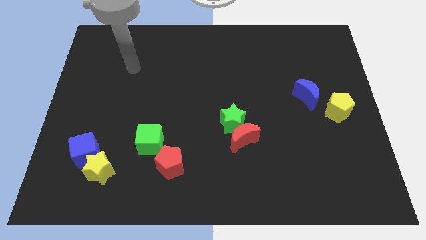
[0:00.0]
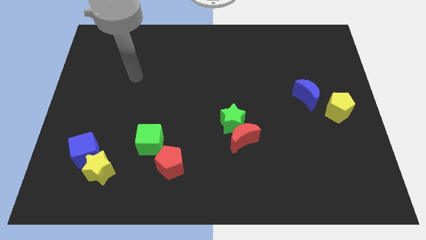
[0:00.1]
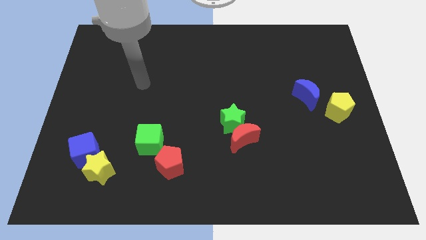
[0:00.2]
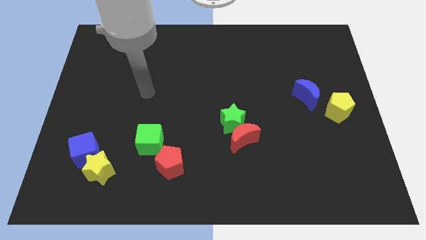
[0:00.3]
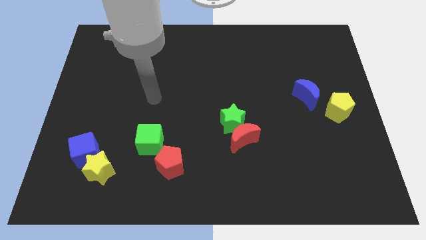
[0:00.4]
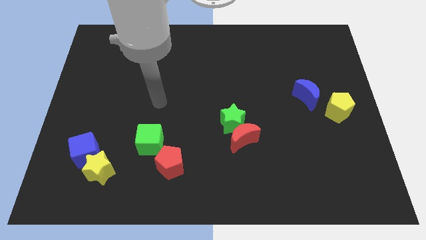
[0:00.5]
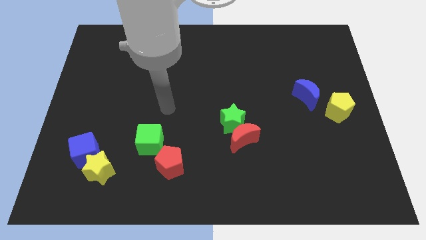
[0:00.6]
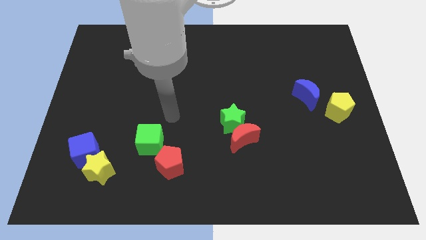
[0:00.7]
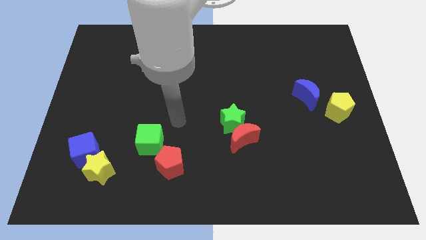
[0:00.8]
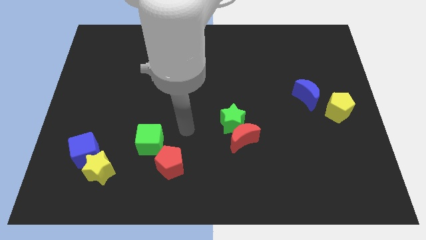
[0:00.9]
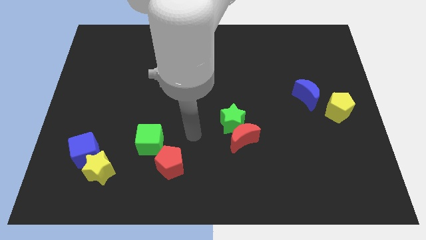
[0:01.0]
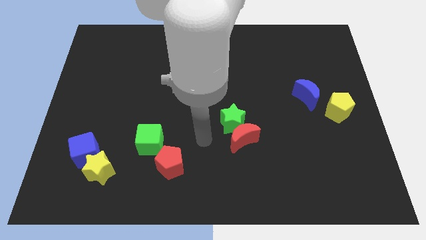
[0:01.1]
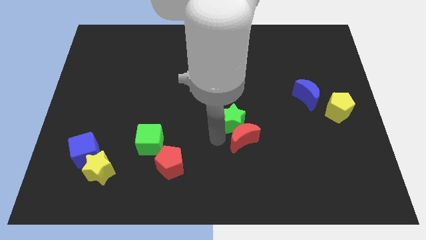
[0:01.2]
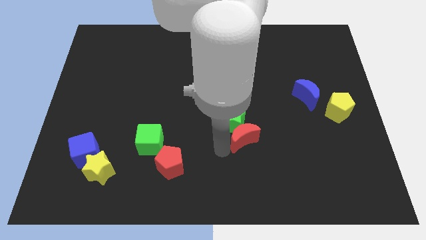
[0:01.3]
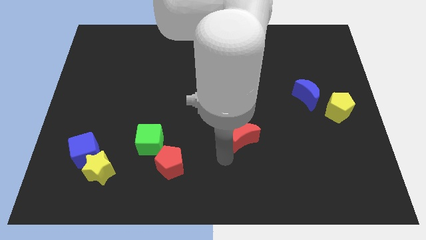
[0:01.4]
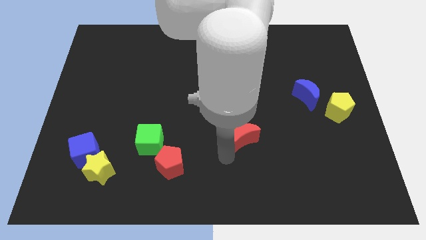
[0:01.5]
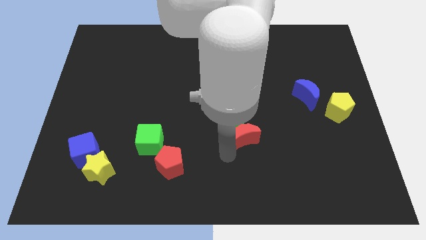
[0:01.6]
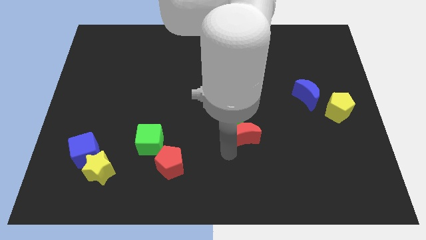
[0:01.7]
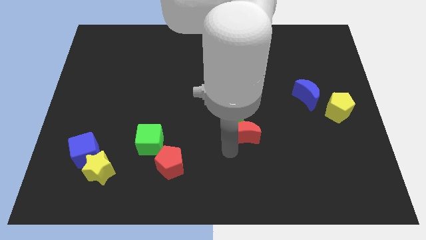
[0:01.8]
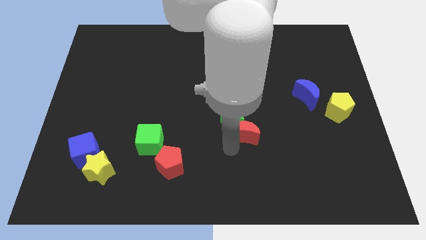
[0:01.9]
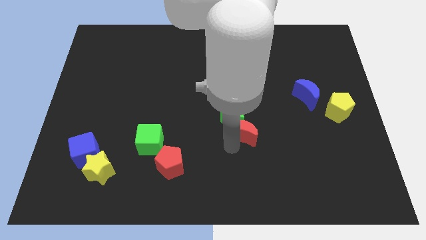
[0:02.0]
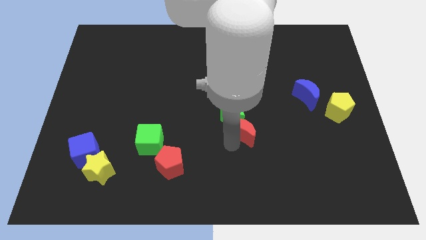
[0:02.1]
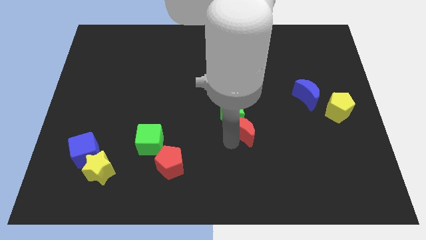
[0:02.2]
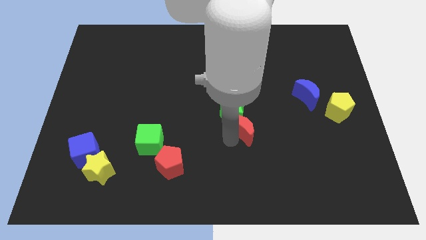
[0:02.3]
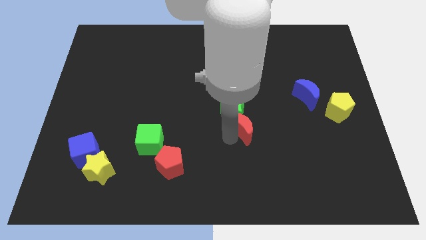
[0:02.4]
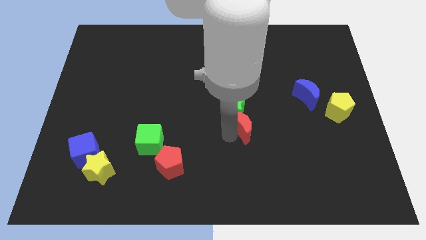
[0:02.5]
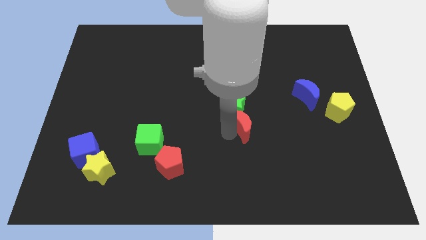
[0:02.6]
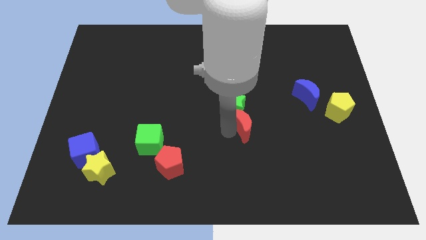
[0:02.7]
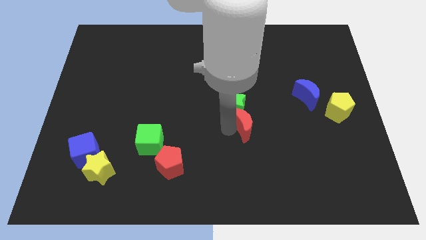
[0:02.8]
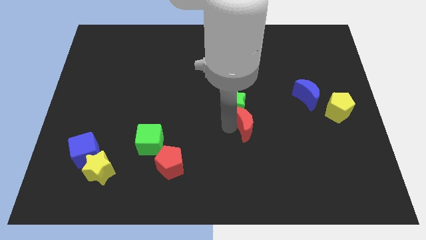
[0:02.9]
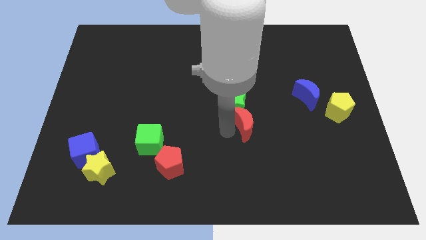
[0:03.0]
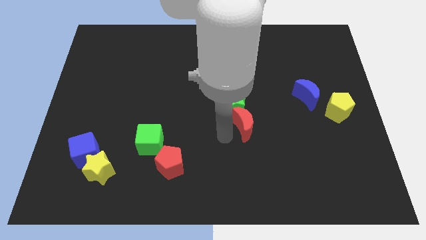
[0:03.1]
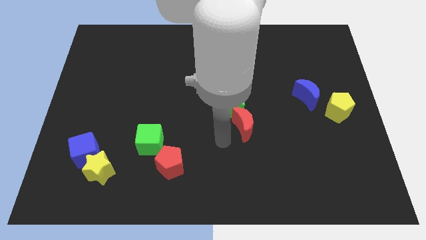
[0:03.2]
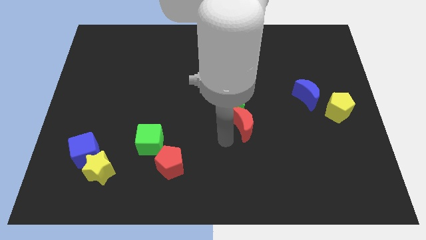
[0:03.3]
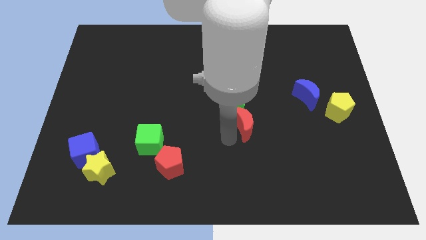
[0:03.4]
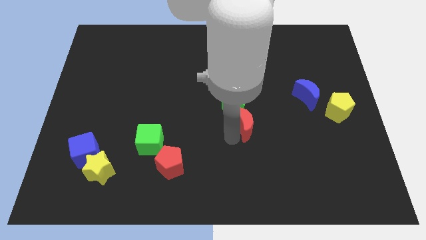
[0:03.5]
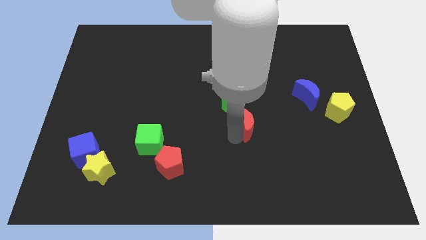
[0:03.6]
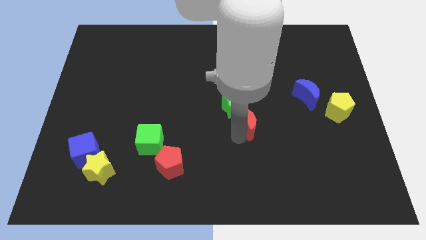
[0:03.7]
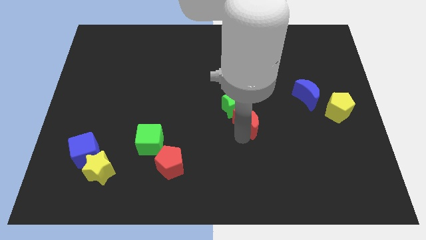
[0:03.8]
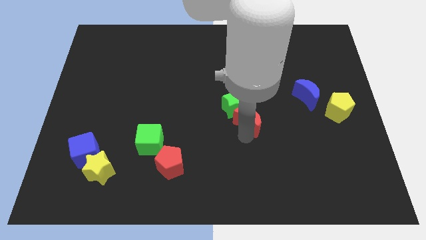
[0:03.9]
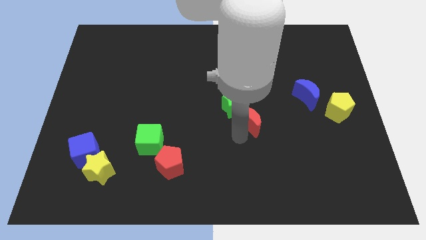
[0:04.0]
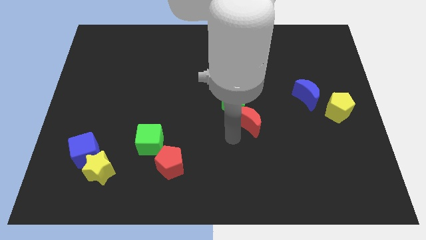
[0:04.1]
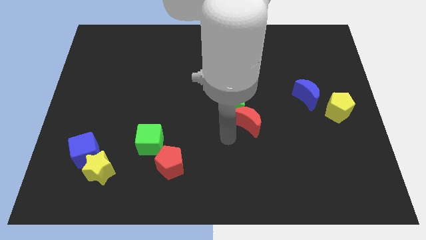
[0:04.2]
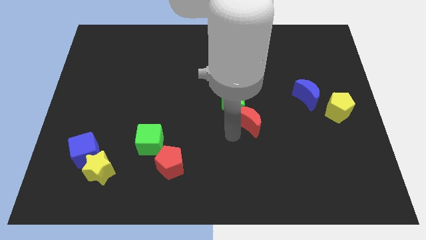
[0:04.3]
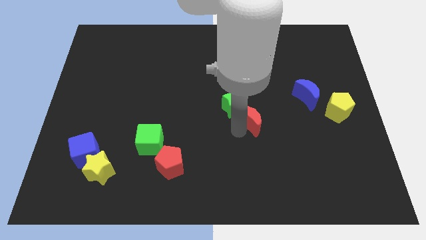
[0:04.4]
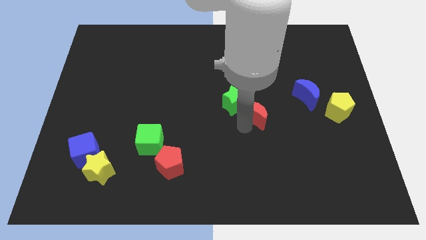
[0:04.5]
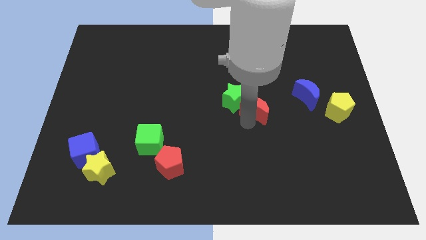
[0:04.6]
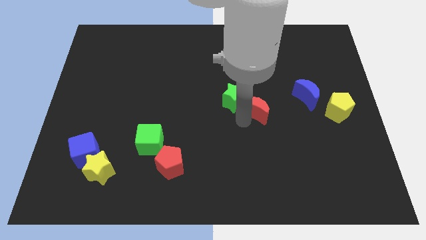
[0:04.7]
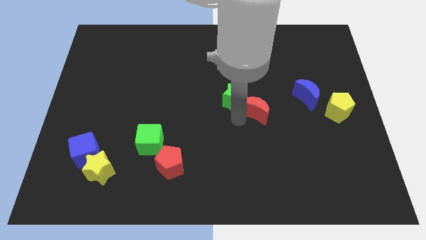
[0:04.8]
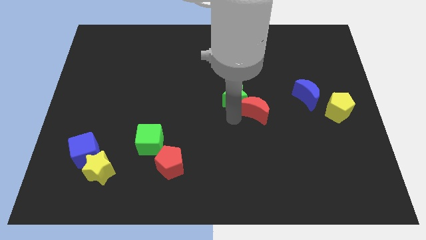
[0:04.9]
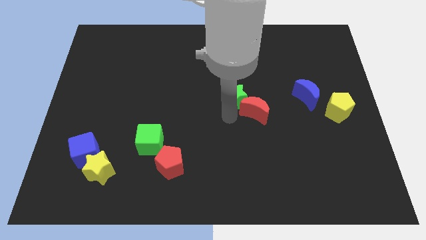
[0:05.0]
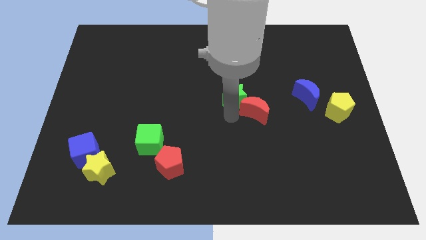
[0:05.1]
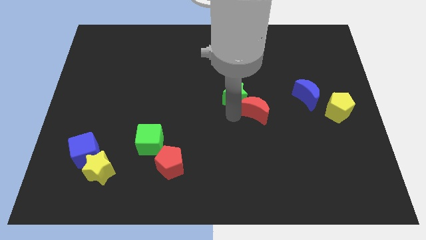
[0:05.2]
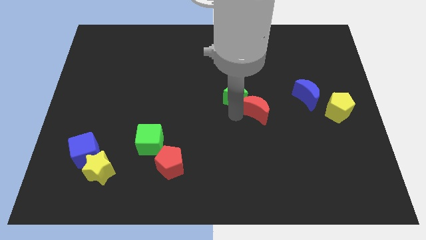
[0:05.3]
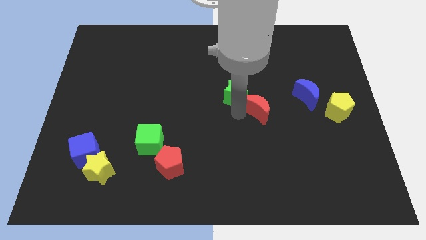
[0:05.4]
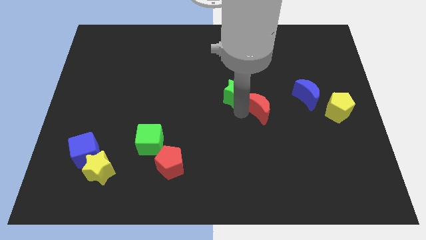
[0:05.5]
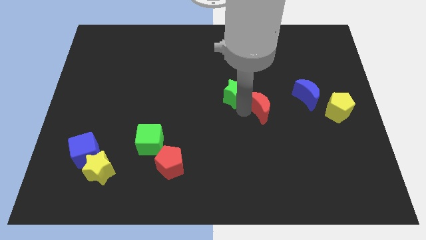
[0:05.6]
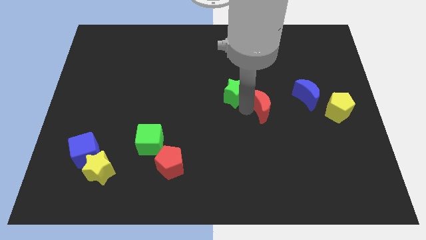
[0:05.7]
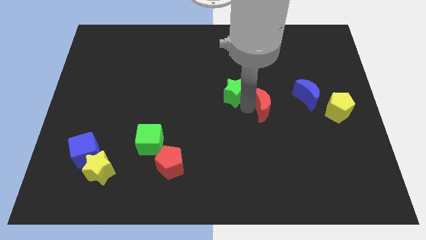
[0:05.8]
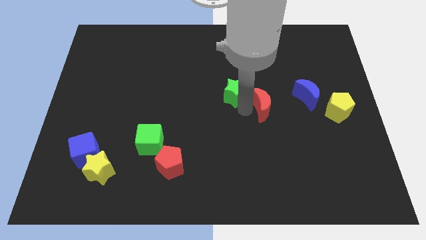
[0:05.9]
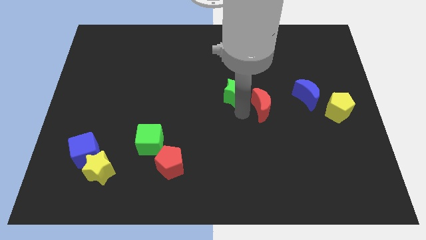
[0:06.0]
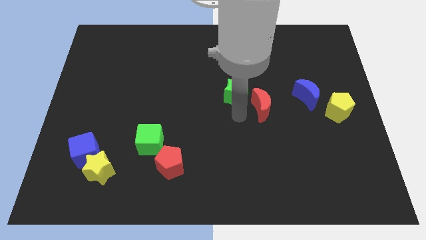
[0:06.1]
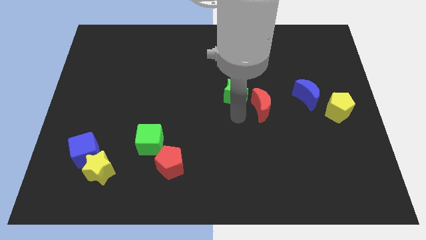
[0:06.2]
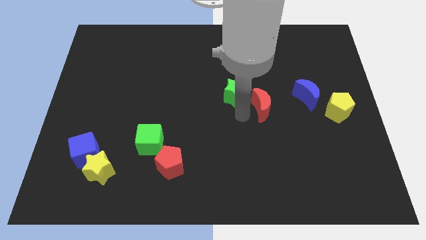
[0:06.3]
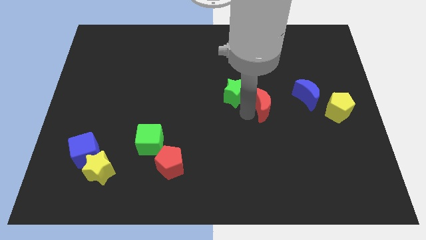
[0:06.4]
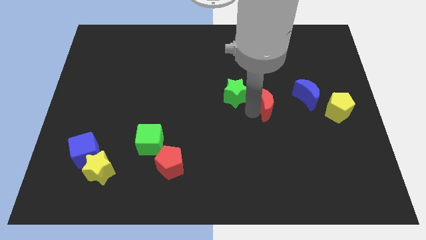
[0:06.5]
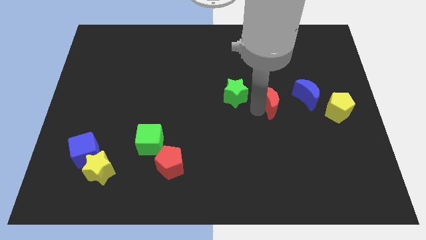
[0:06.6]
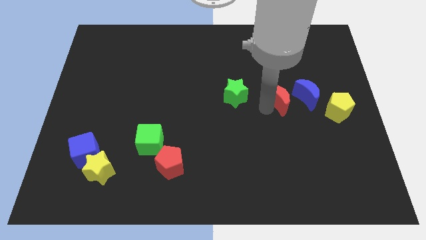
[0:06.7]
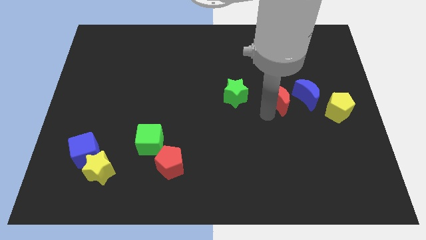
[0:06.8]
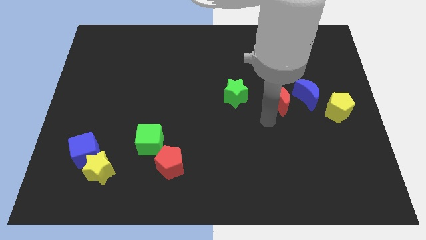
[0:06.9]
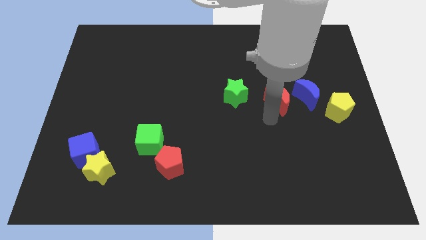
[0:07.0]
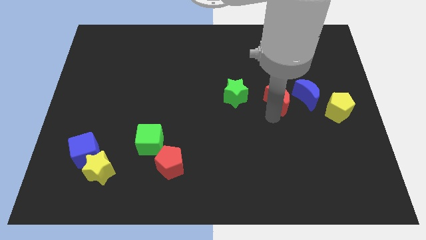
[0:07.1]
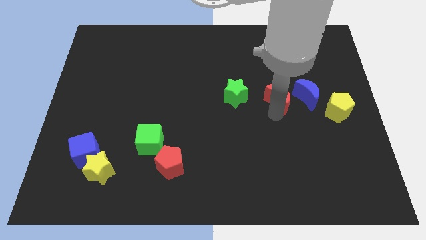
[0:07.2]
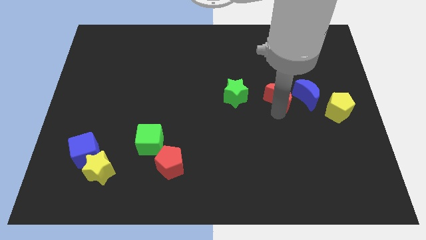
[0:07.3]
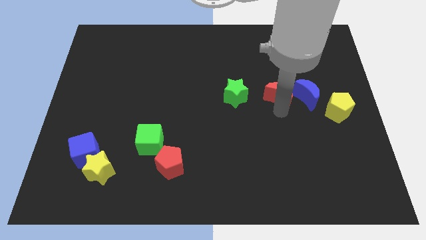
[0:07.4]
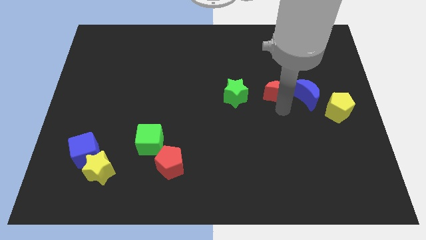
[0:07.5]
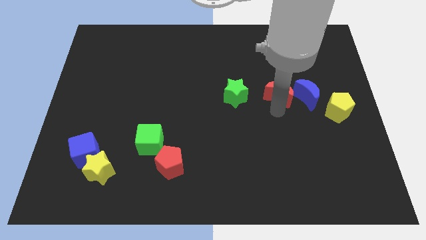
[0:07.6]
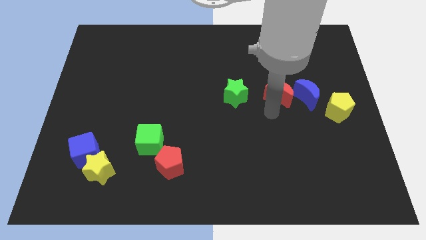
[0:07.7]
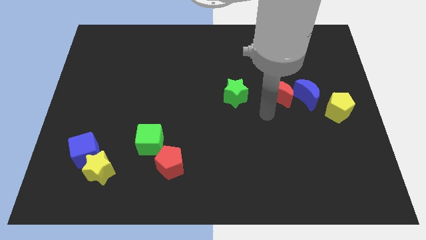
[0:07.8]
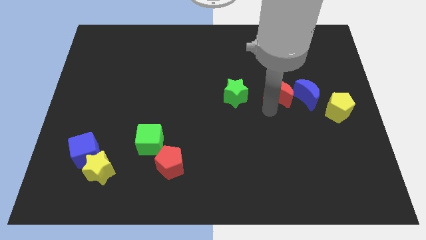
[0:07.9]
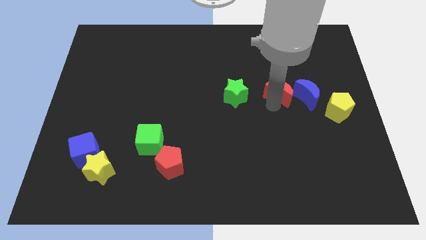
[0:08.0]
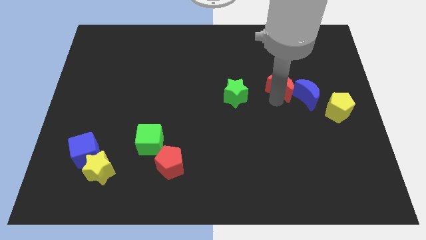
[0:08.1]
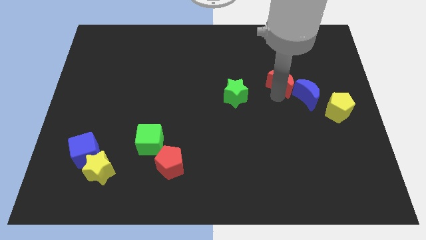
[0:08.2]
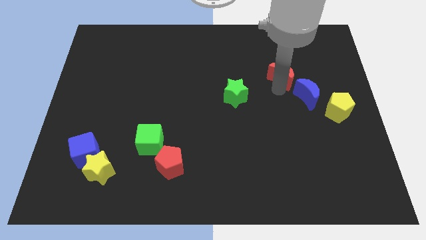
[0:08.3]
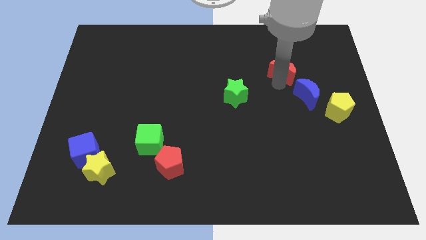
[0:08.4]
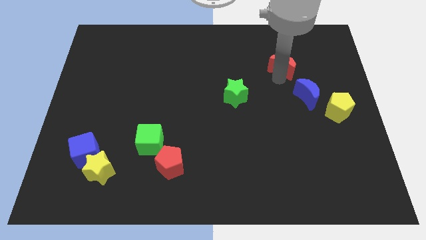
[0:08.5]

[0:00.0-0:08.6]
slide the red moon to the top of the blue moon
